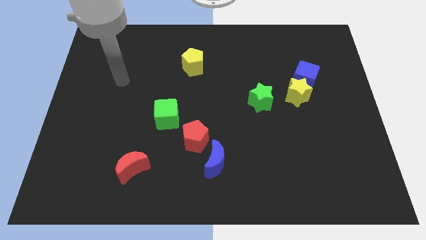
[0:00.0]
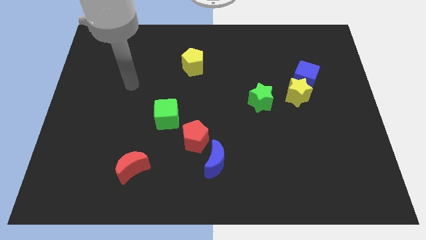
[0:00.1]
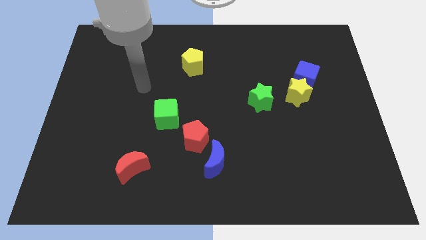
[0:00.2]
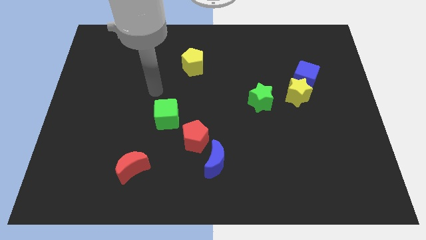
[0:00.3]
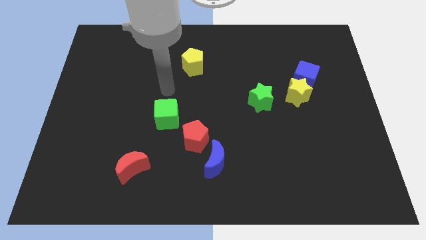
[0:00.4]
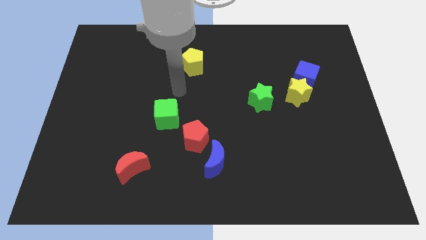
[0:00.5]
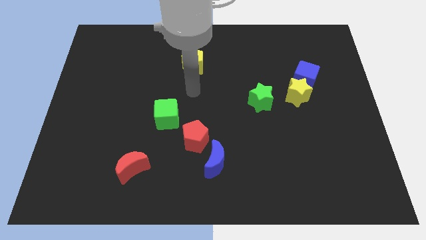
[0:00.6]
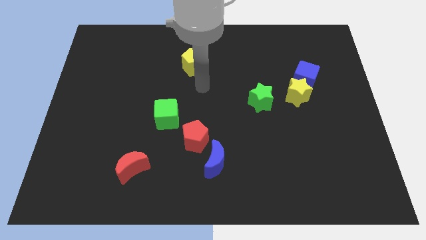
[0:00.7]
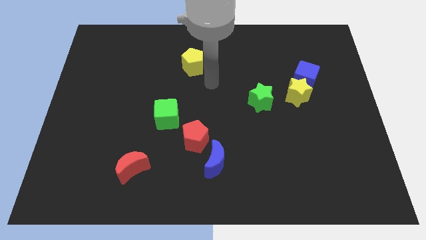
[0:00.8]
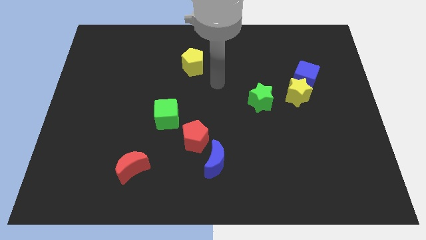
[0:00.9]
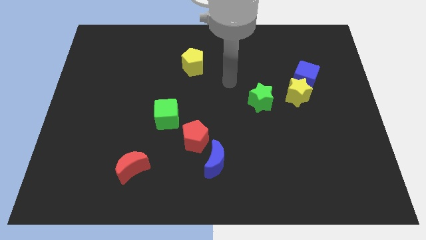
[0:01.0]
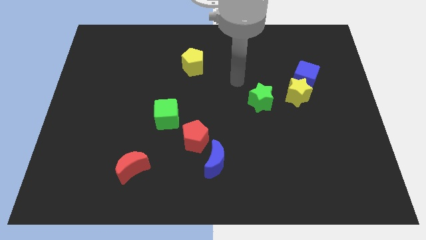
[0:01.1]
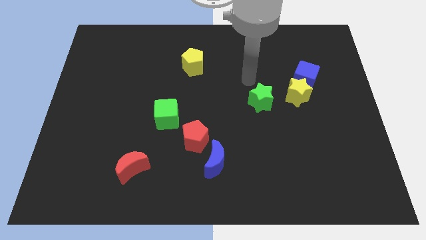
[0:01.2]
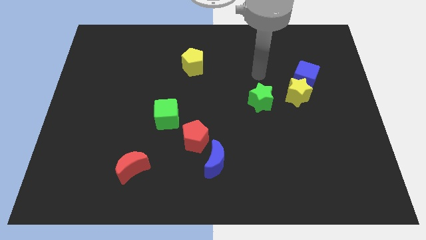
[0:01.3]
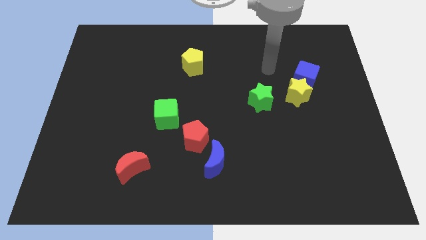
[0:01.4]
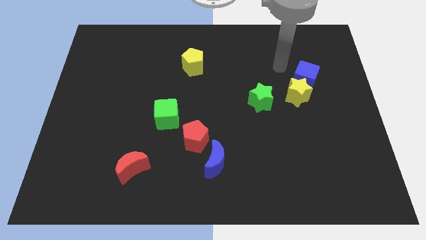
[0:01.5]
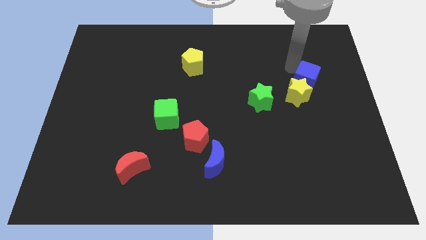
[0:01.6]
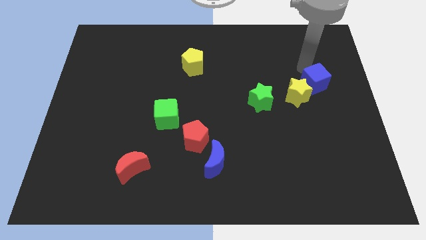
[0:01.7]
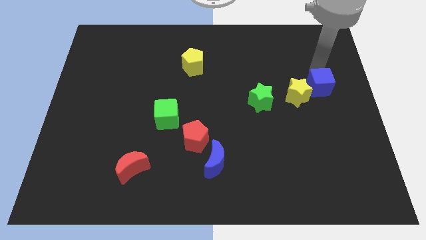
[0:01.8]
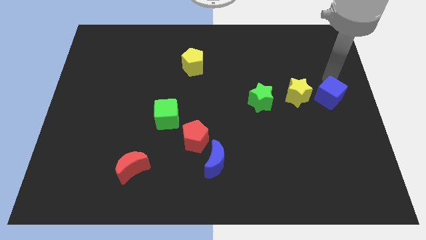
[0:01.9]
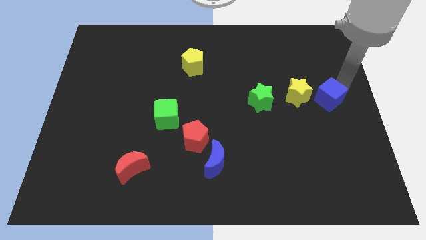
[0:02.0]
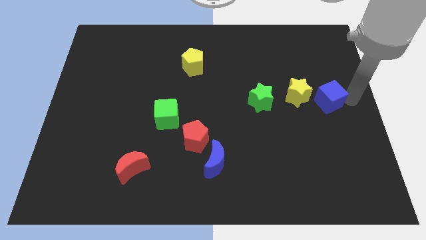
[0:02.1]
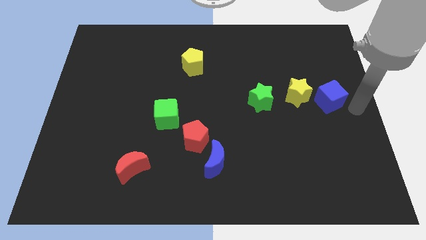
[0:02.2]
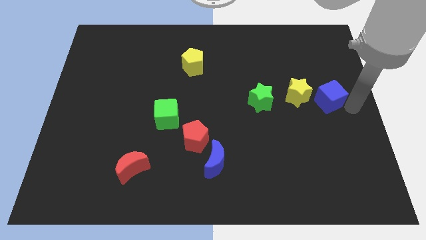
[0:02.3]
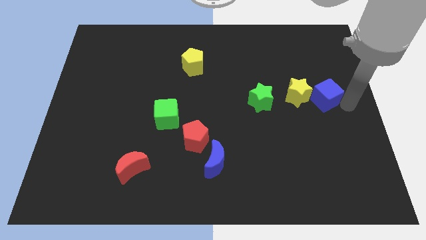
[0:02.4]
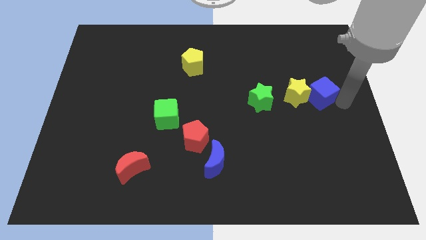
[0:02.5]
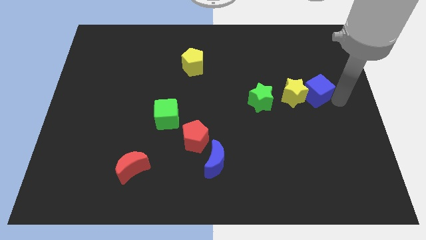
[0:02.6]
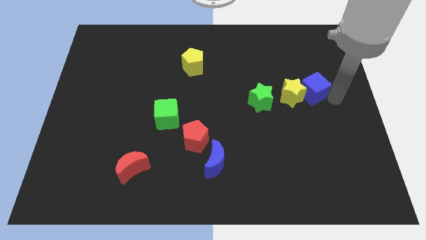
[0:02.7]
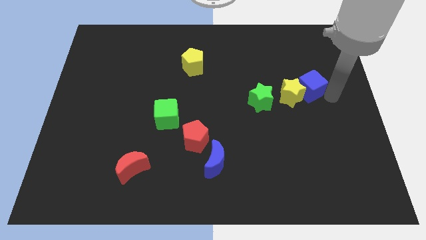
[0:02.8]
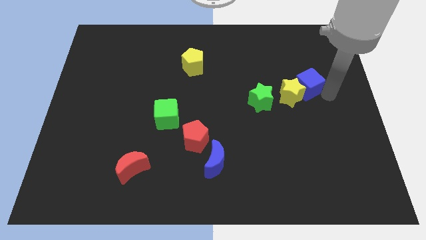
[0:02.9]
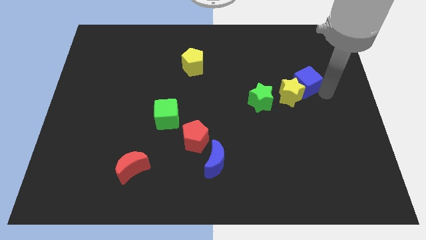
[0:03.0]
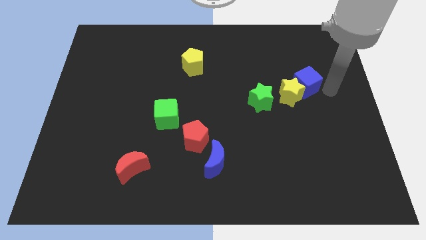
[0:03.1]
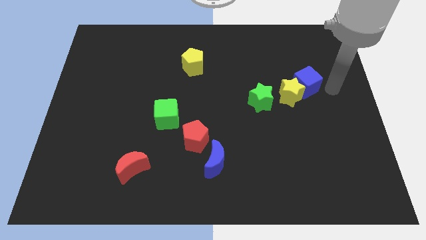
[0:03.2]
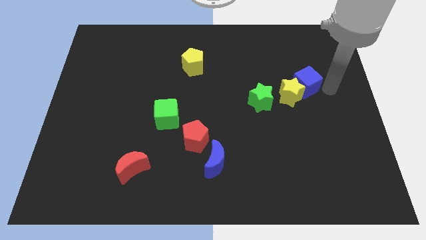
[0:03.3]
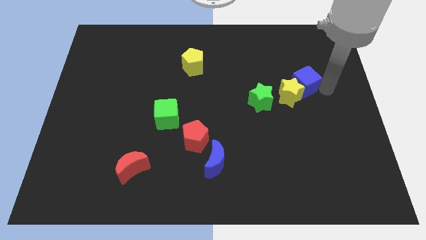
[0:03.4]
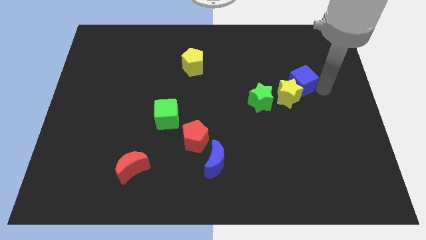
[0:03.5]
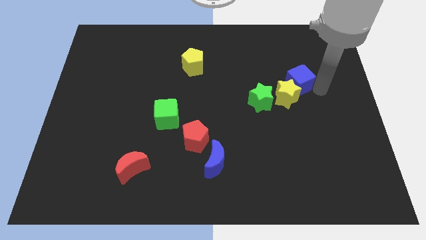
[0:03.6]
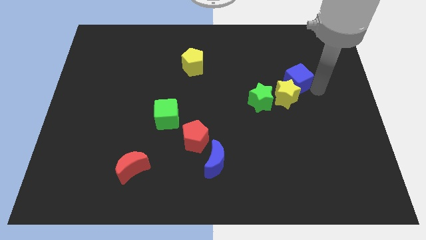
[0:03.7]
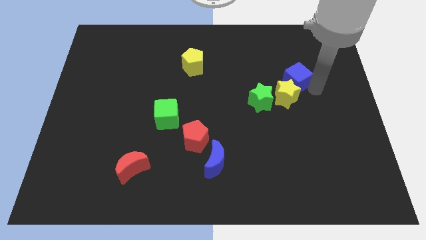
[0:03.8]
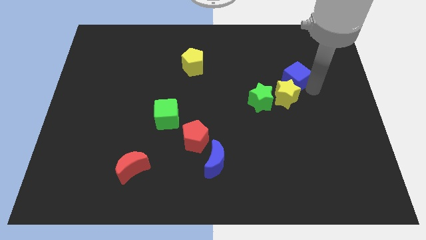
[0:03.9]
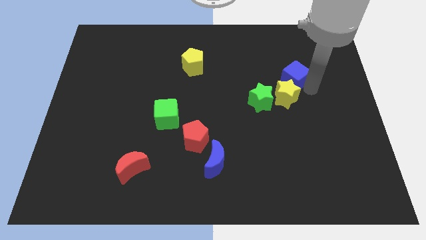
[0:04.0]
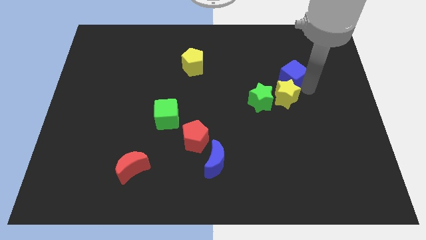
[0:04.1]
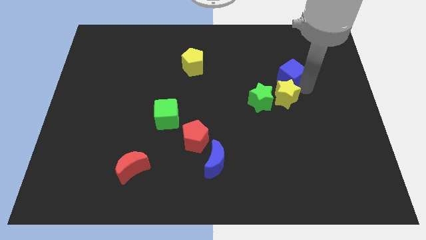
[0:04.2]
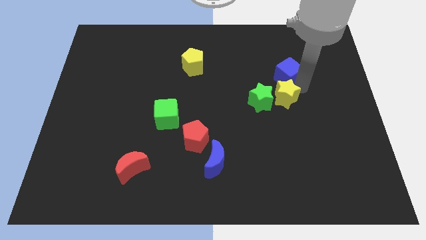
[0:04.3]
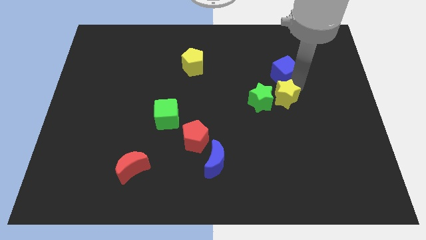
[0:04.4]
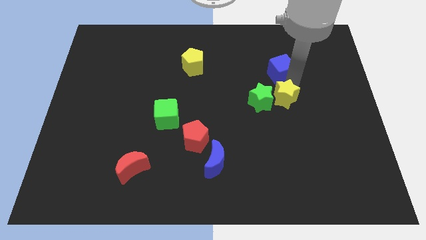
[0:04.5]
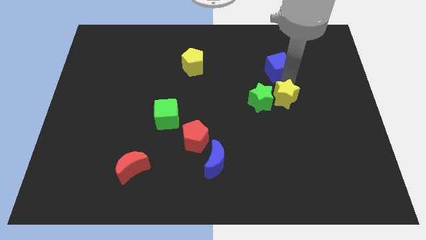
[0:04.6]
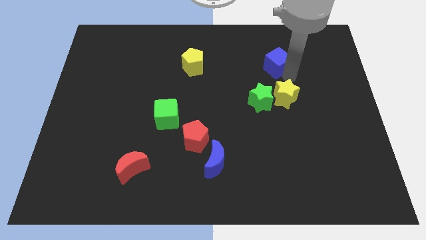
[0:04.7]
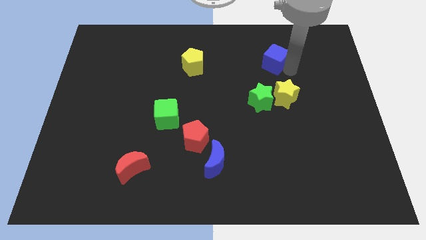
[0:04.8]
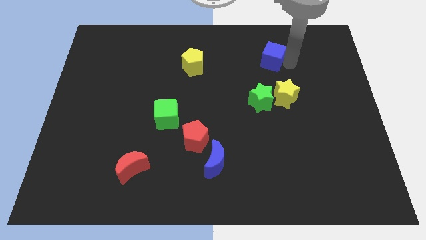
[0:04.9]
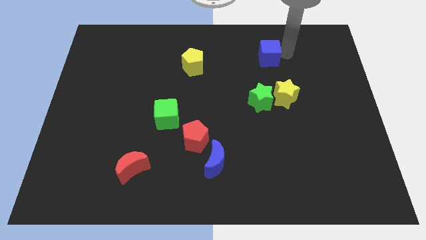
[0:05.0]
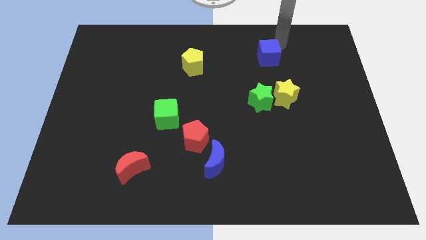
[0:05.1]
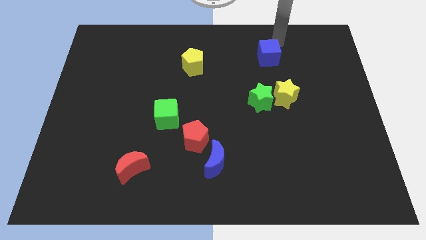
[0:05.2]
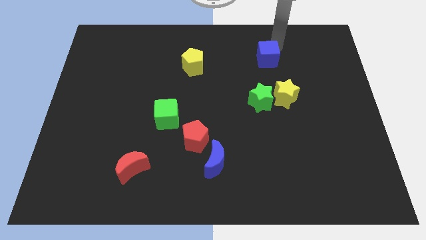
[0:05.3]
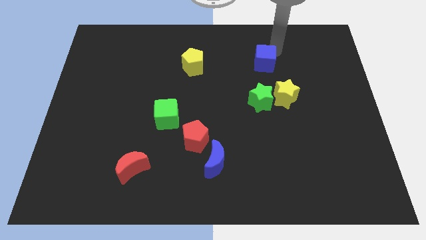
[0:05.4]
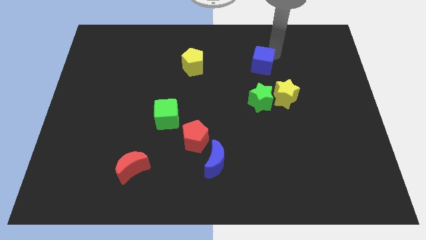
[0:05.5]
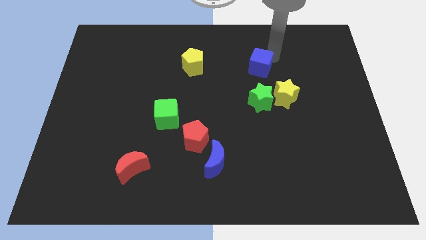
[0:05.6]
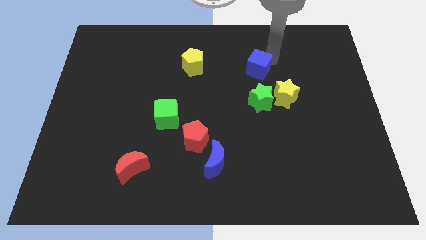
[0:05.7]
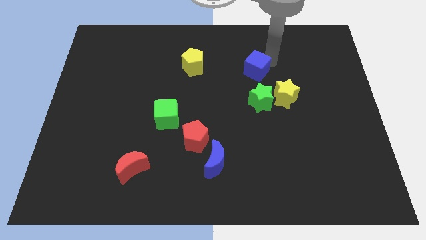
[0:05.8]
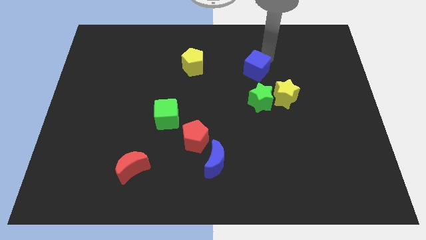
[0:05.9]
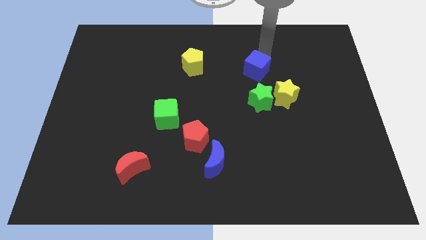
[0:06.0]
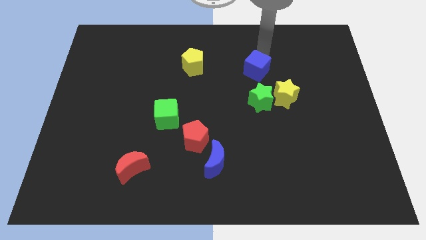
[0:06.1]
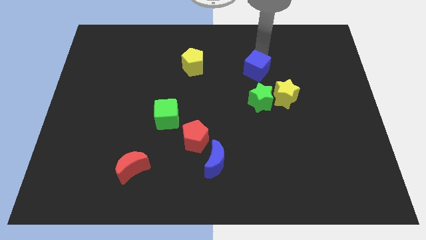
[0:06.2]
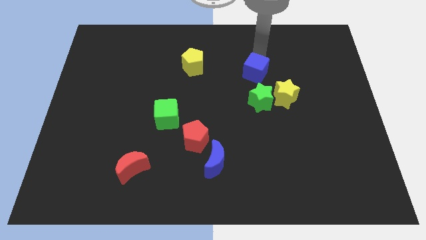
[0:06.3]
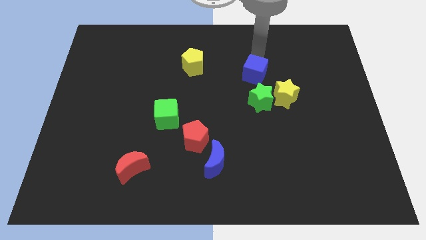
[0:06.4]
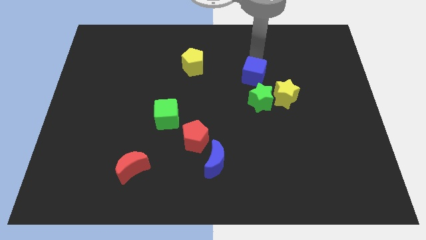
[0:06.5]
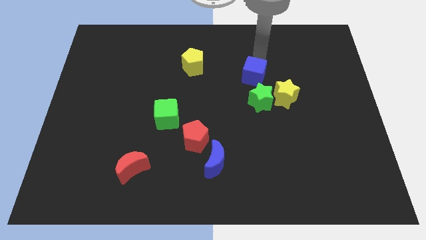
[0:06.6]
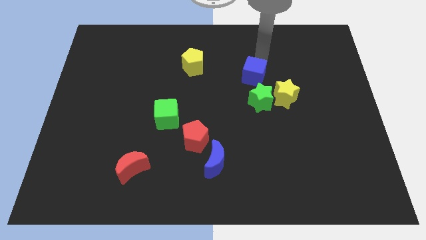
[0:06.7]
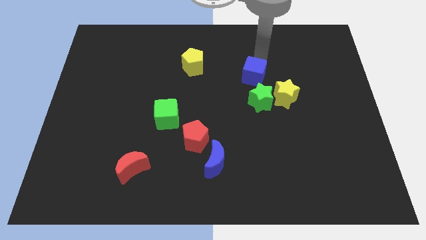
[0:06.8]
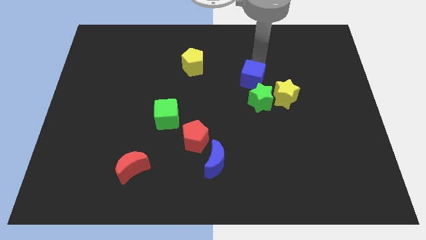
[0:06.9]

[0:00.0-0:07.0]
push the blue cube to the center of the board
